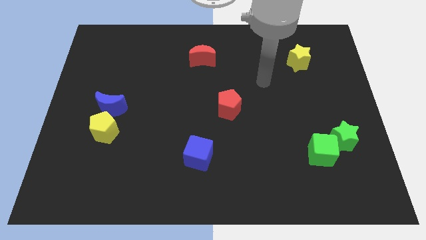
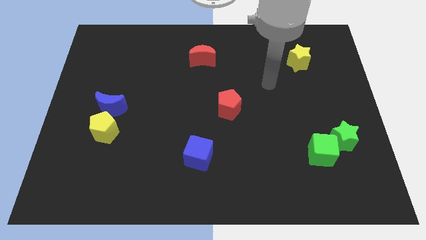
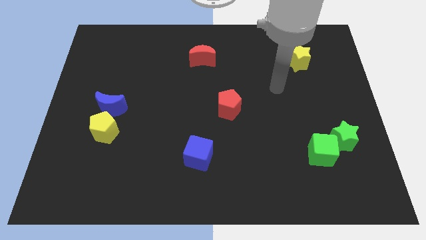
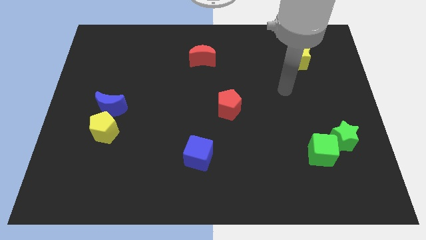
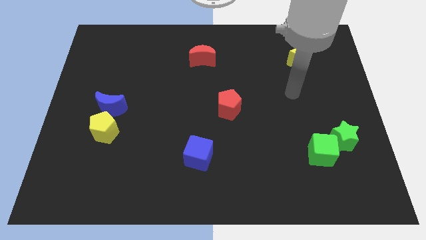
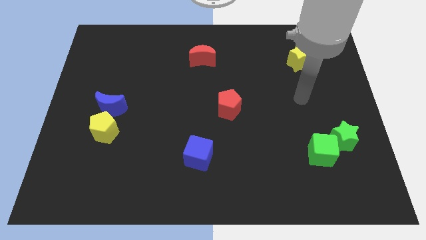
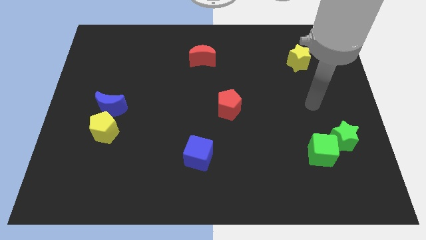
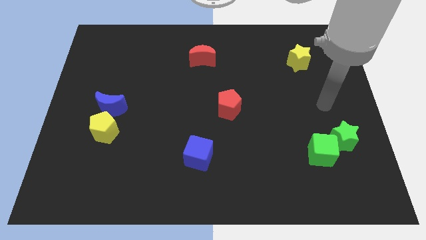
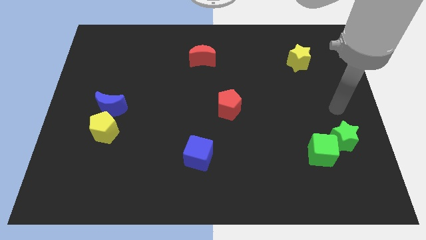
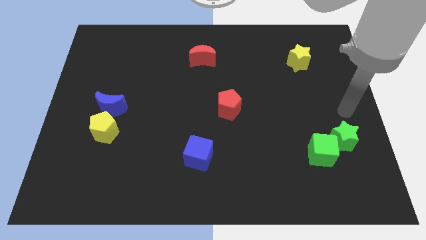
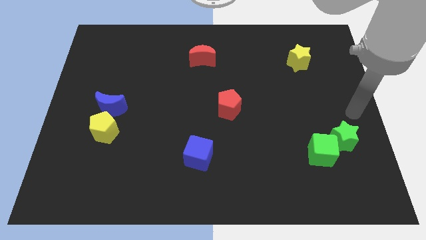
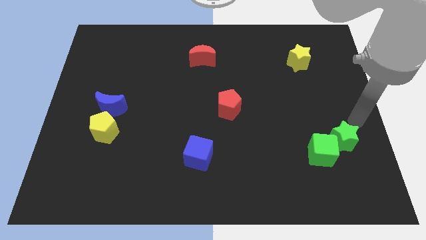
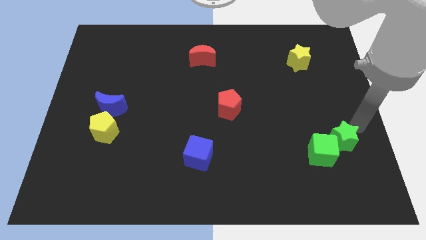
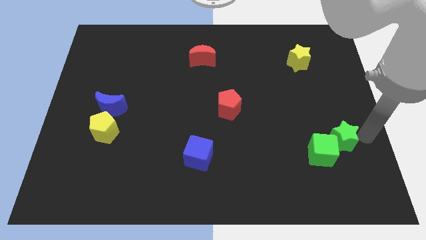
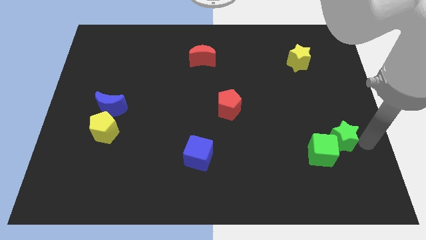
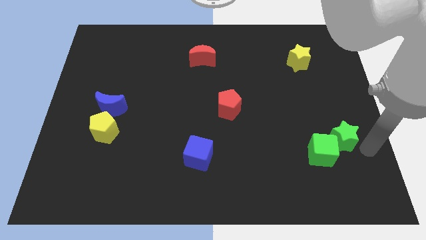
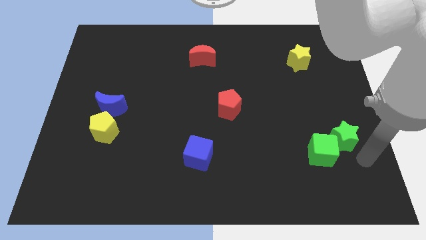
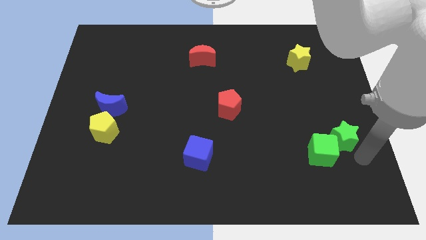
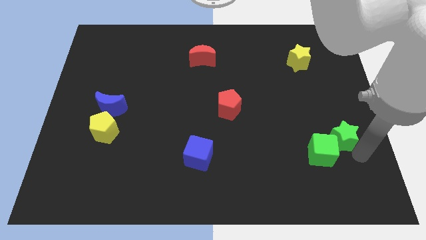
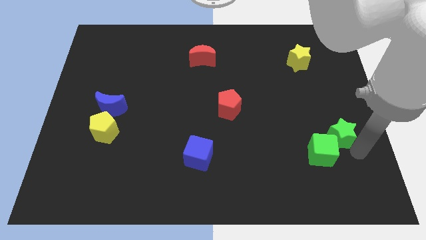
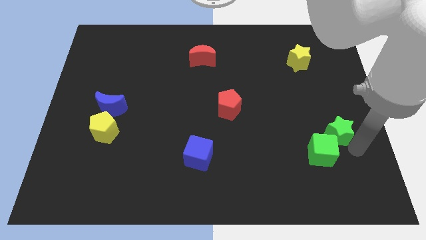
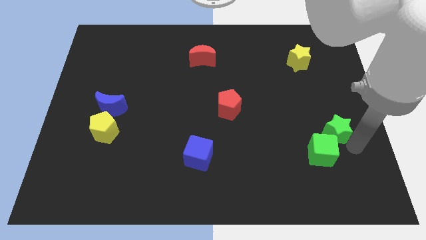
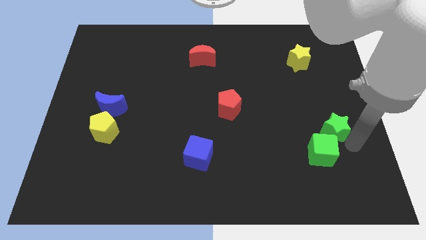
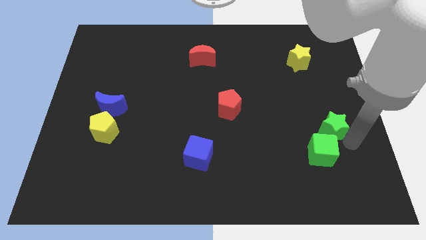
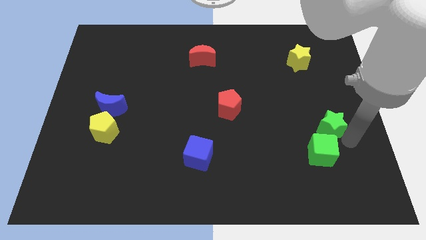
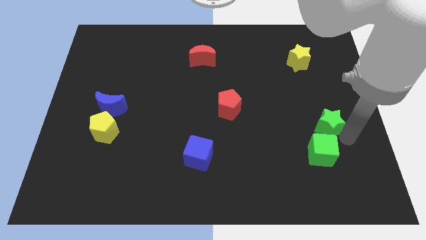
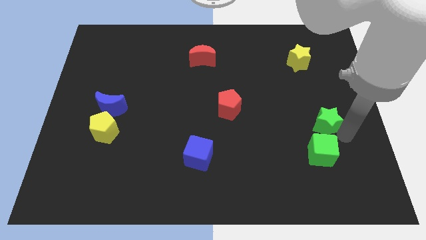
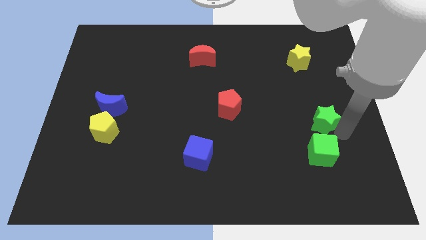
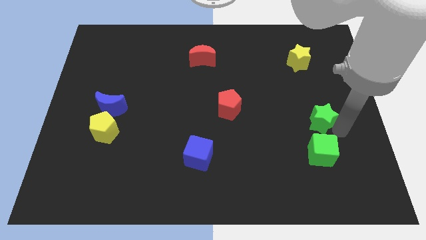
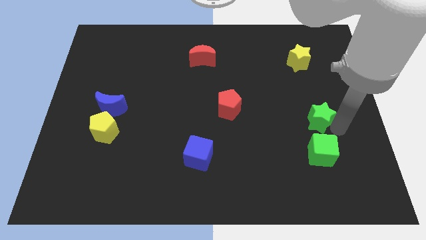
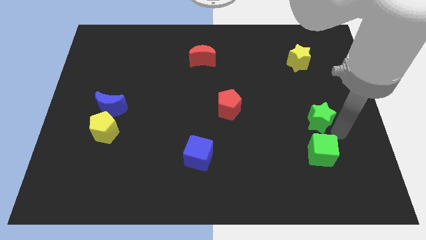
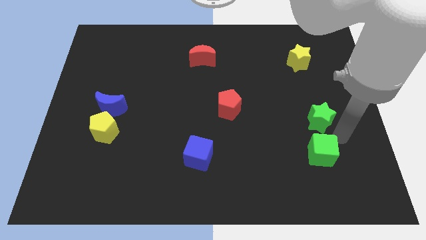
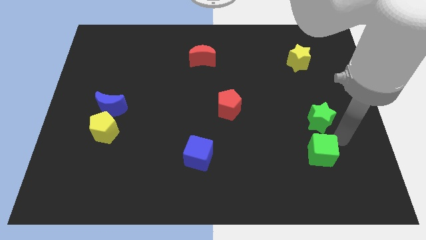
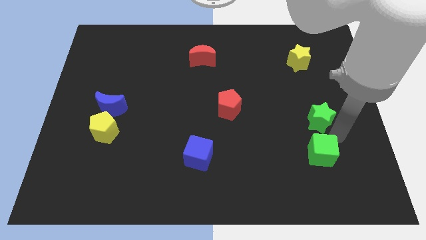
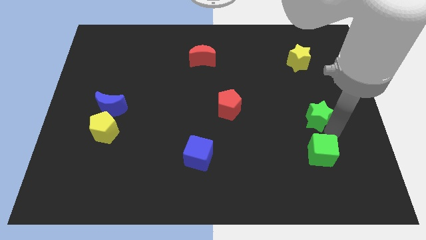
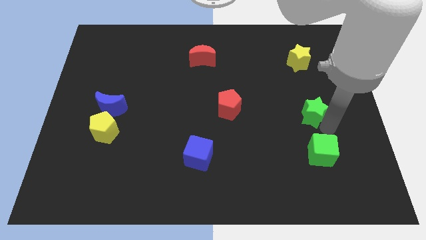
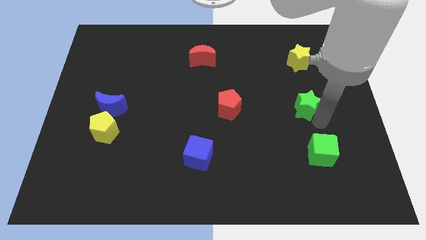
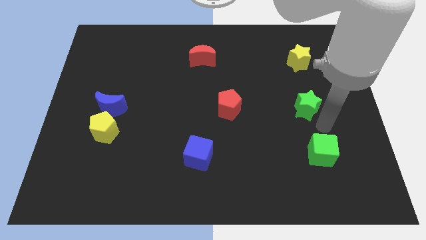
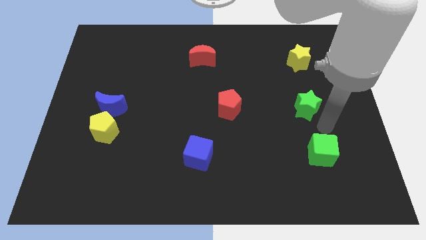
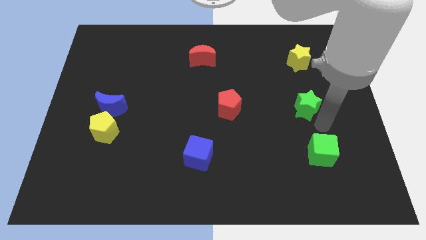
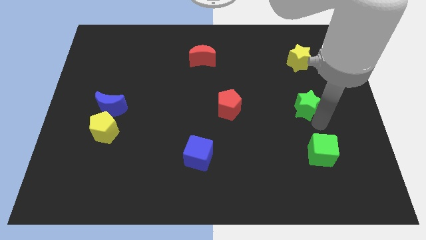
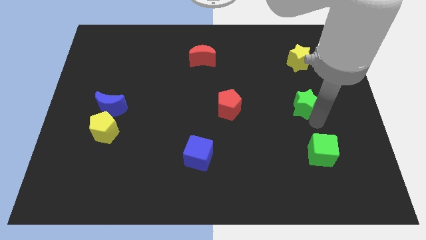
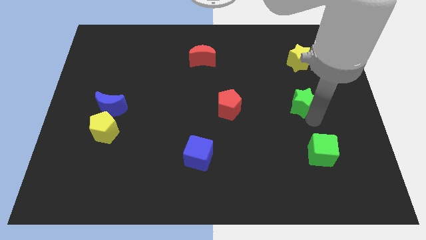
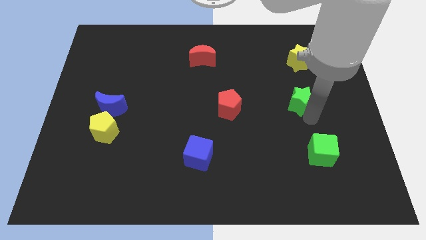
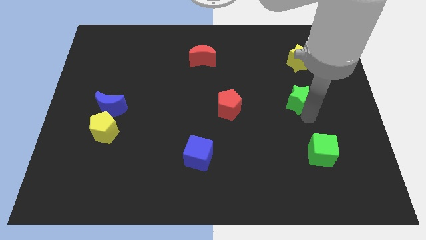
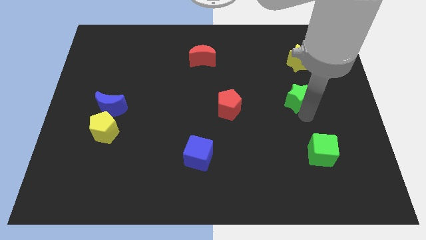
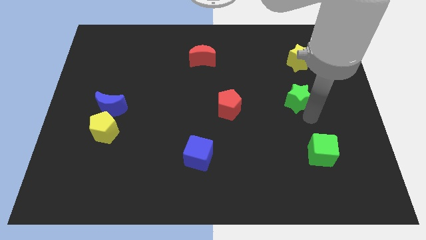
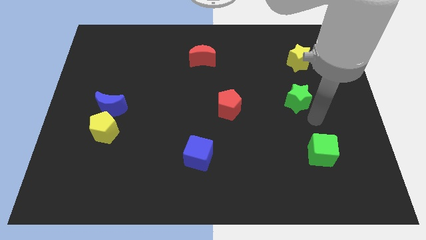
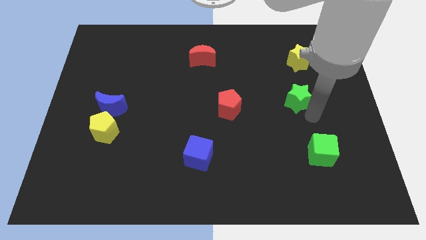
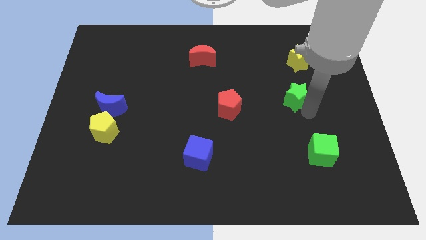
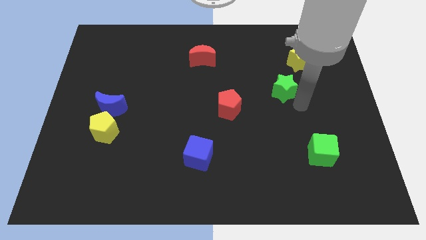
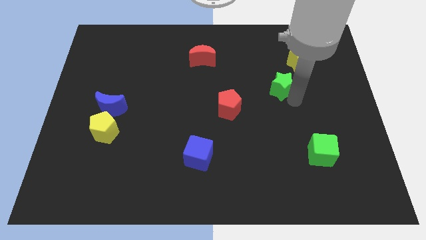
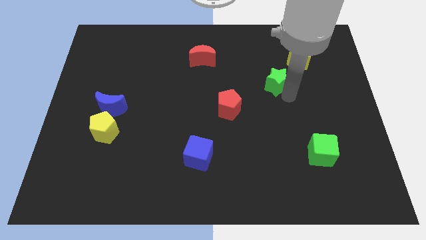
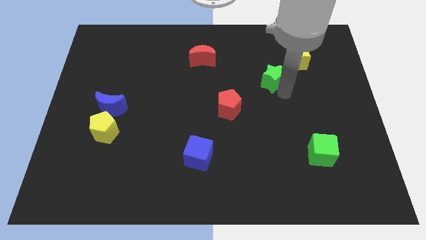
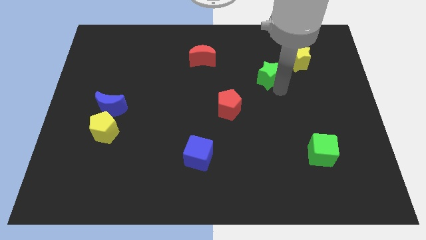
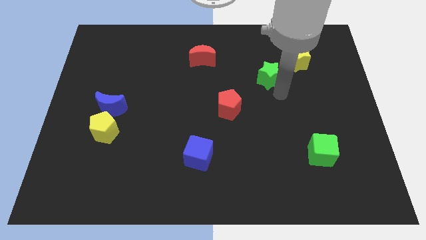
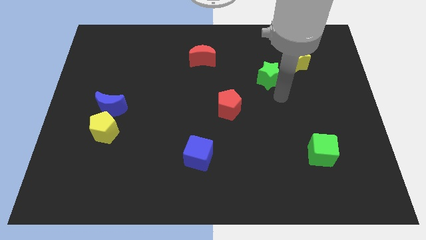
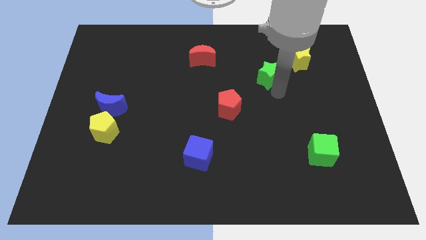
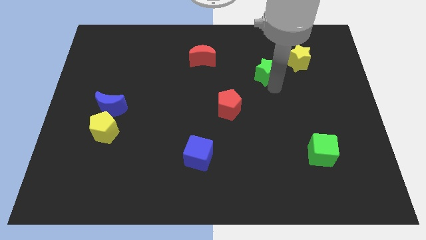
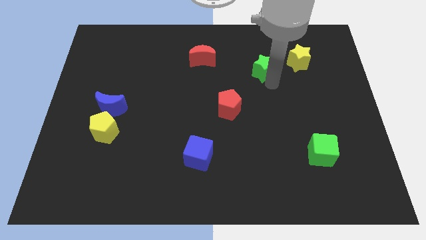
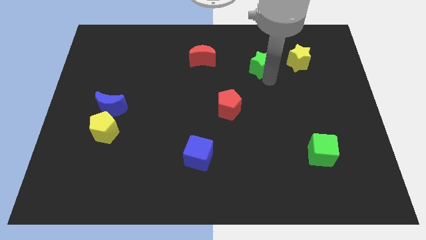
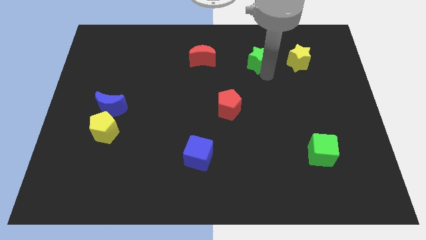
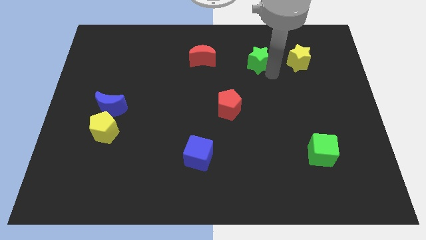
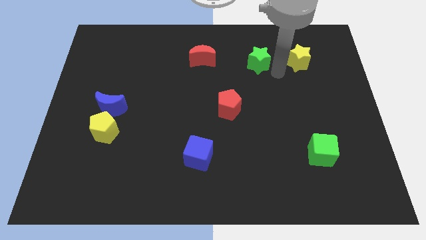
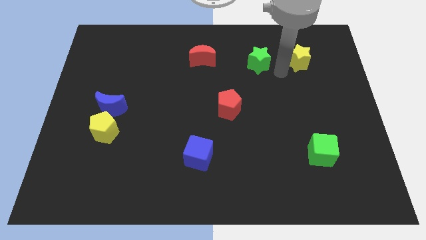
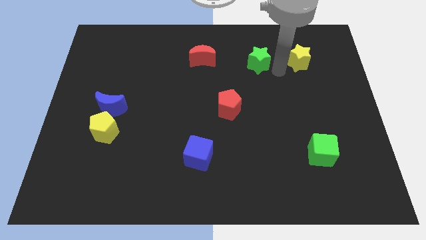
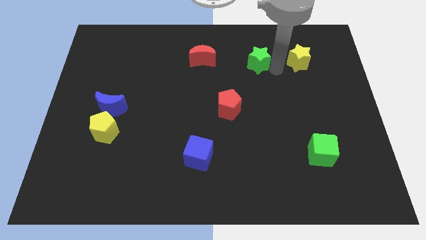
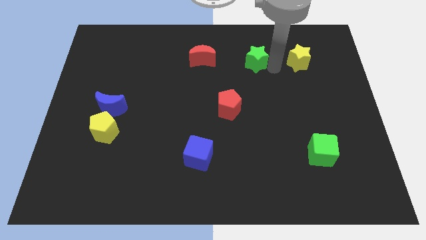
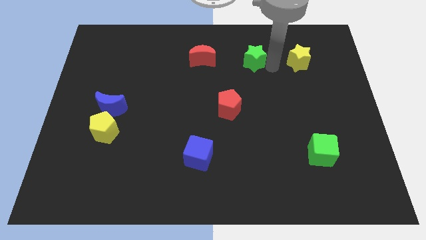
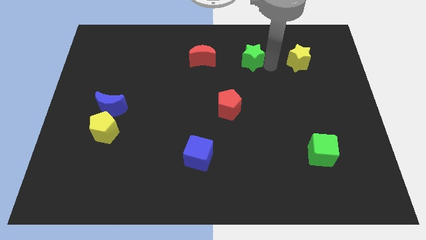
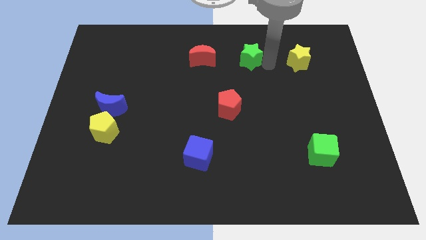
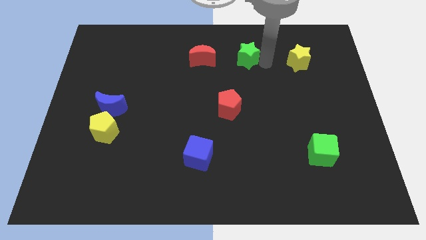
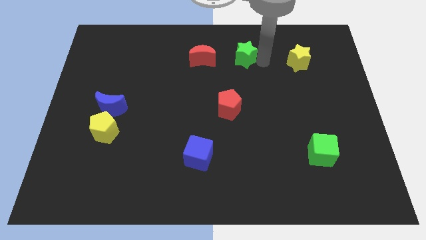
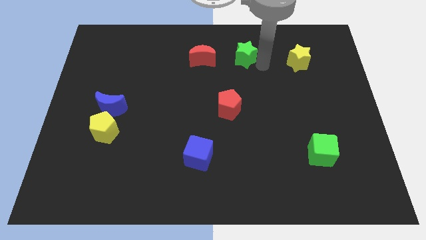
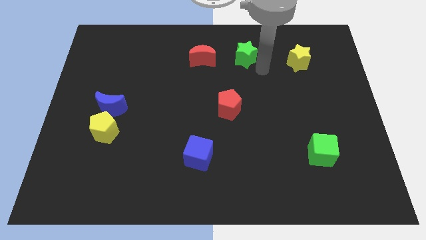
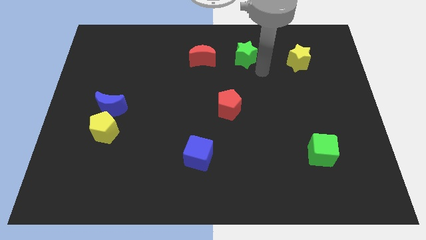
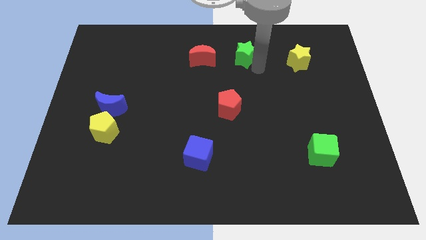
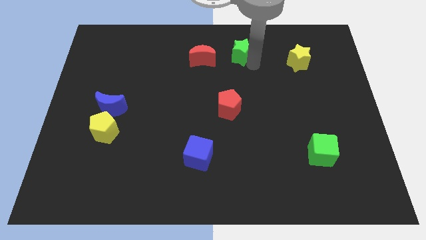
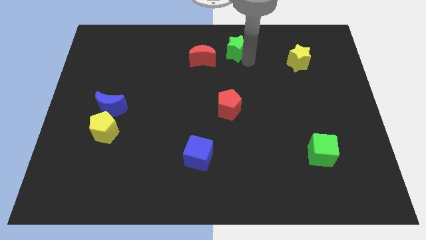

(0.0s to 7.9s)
put the green star to the towards your base
